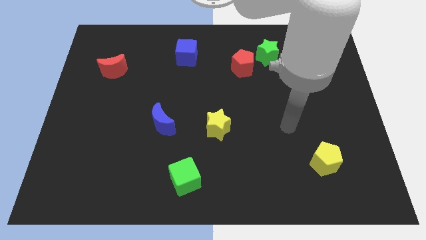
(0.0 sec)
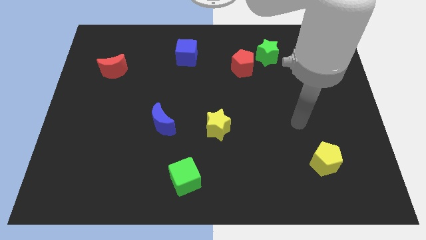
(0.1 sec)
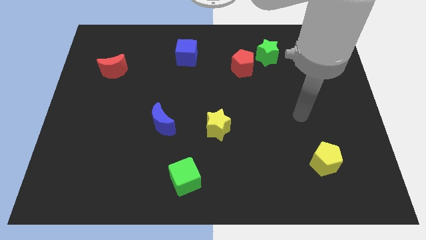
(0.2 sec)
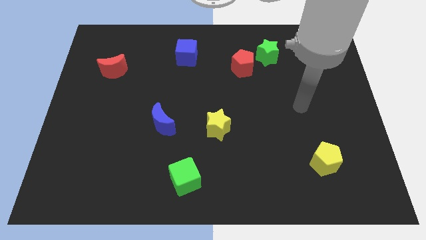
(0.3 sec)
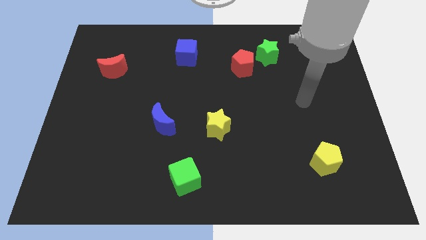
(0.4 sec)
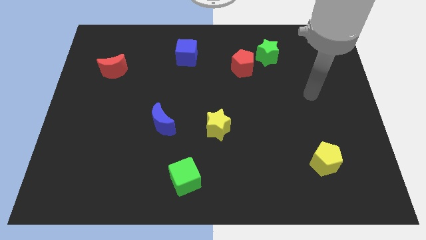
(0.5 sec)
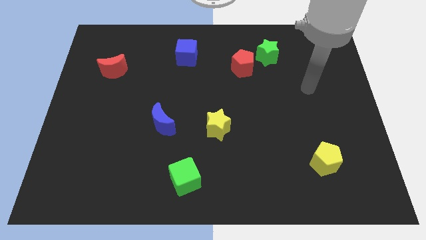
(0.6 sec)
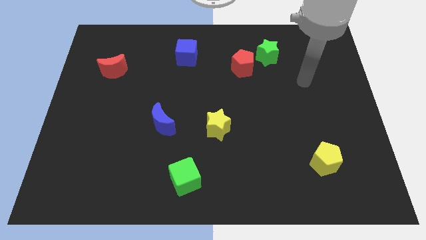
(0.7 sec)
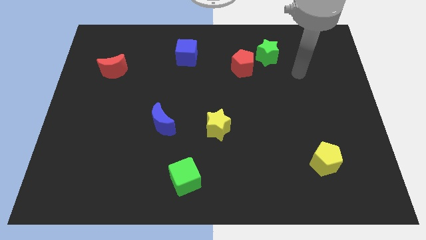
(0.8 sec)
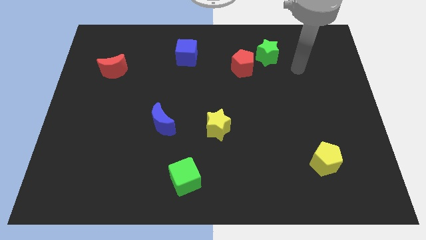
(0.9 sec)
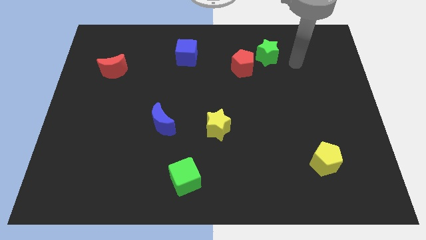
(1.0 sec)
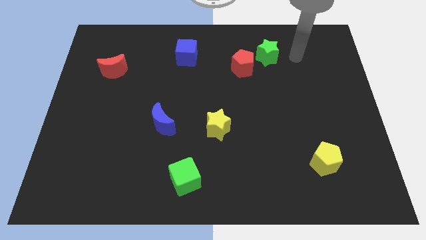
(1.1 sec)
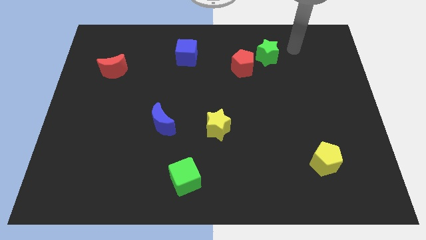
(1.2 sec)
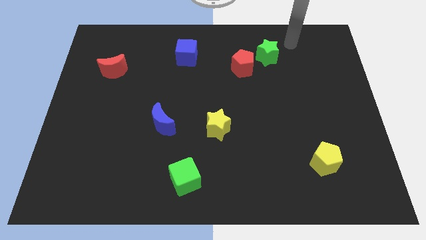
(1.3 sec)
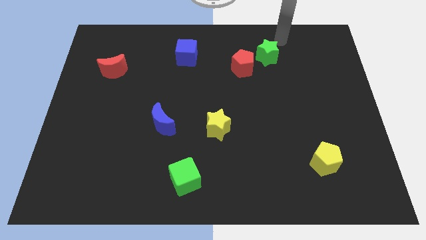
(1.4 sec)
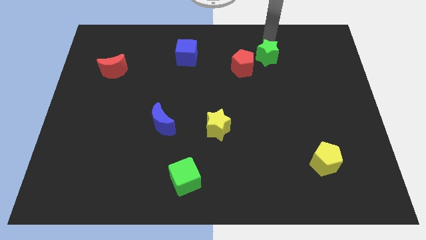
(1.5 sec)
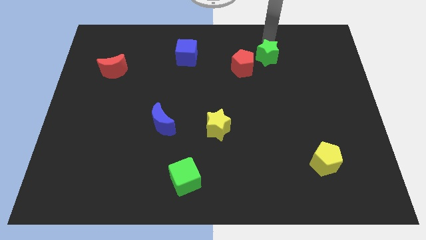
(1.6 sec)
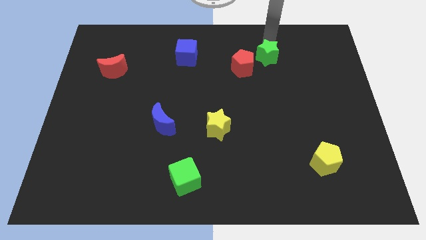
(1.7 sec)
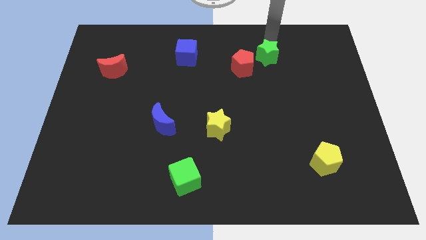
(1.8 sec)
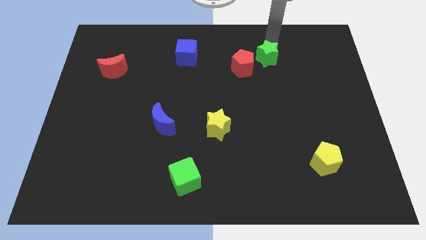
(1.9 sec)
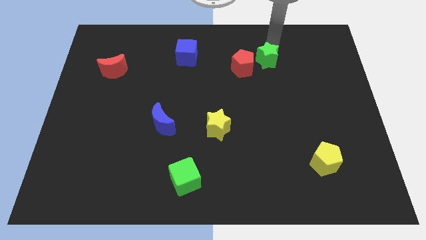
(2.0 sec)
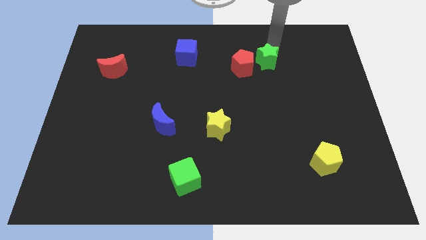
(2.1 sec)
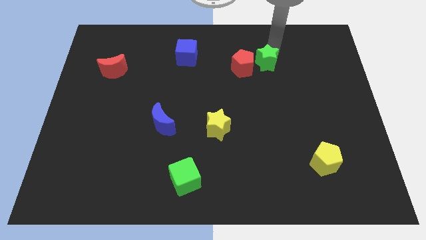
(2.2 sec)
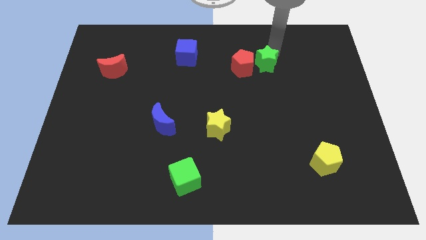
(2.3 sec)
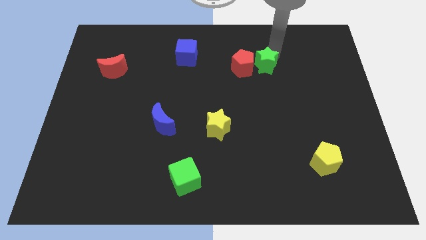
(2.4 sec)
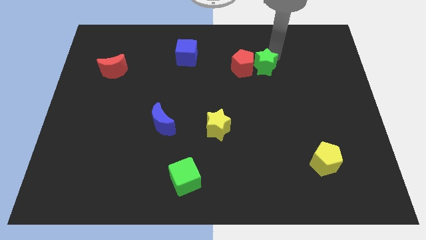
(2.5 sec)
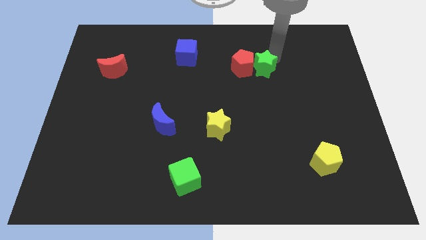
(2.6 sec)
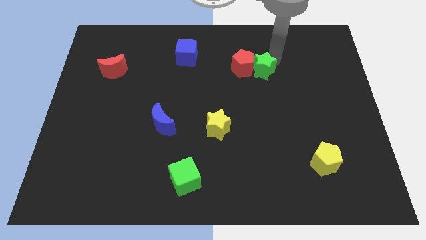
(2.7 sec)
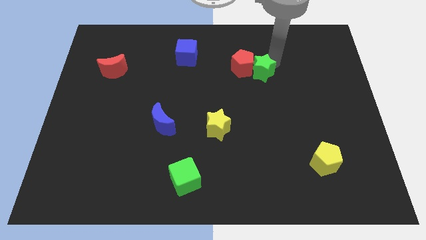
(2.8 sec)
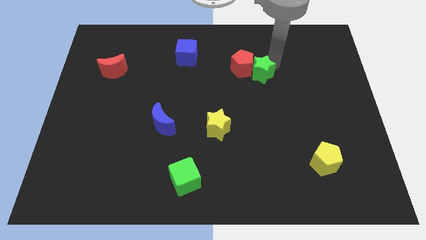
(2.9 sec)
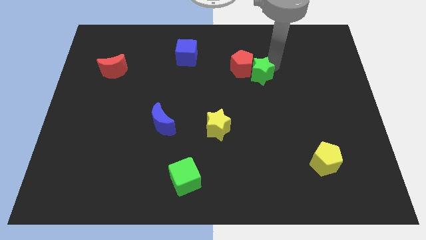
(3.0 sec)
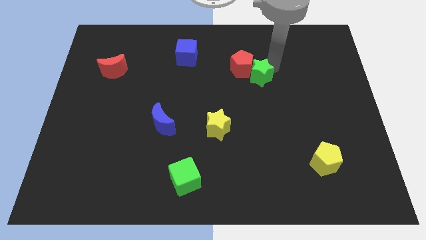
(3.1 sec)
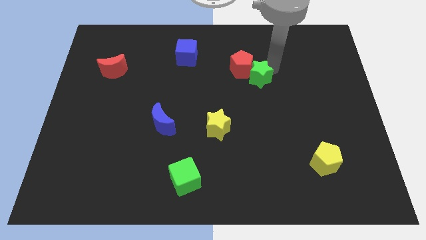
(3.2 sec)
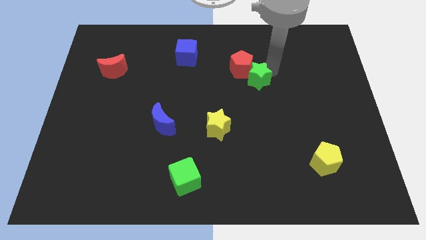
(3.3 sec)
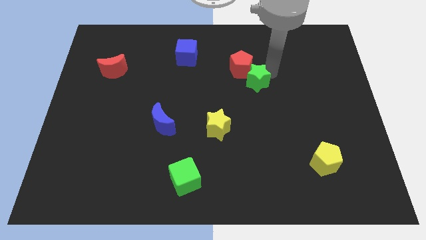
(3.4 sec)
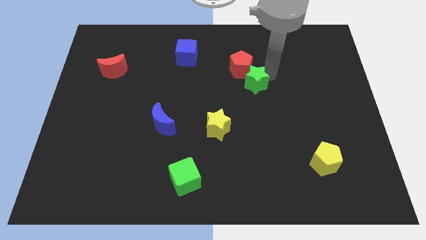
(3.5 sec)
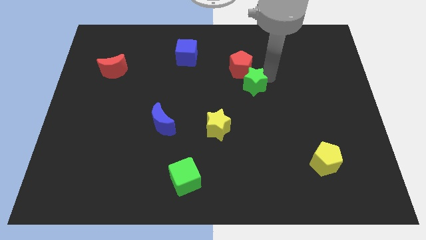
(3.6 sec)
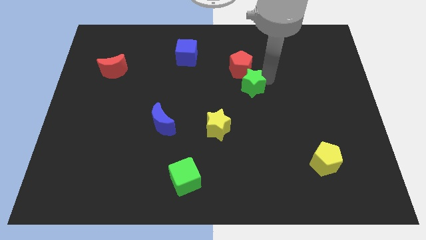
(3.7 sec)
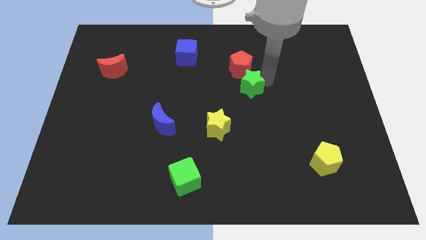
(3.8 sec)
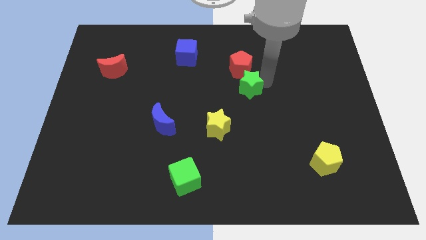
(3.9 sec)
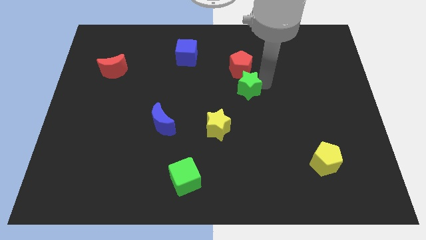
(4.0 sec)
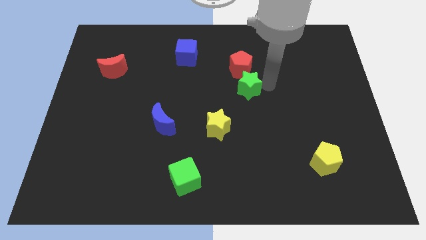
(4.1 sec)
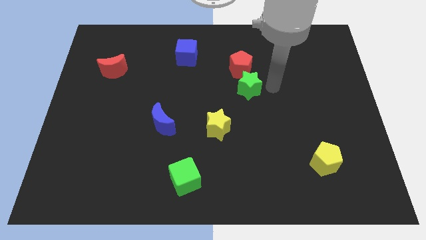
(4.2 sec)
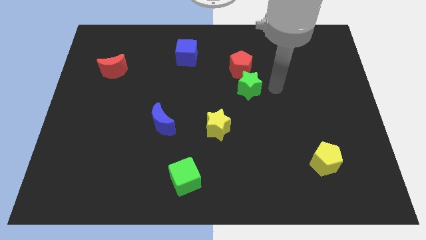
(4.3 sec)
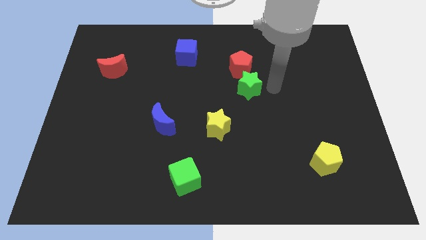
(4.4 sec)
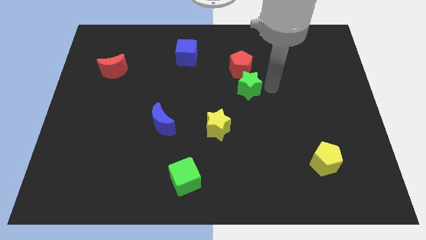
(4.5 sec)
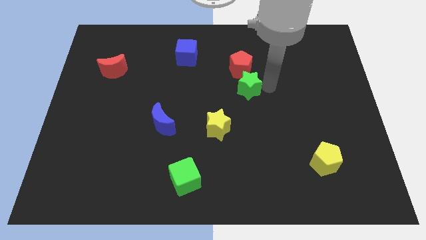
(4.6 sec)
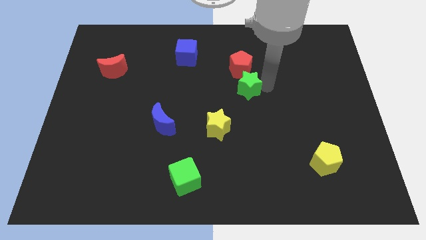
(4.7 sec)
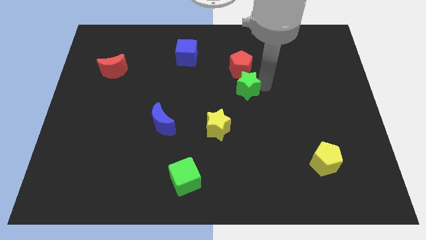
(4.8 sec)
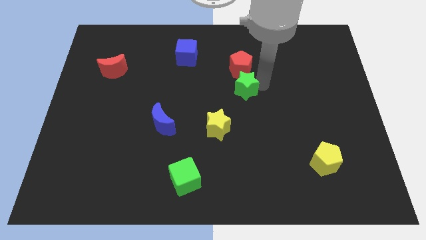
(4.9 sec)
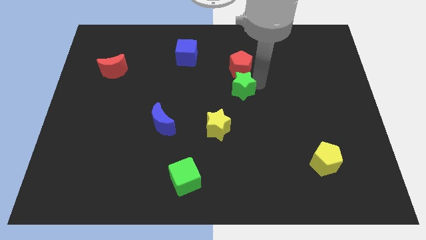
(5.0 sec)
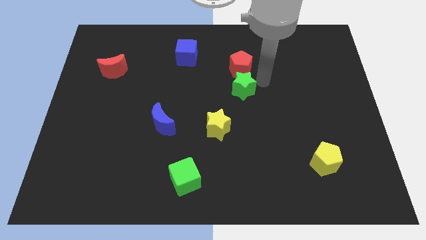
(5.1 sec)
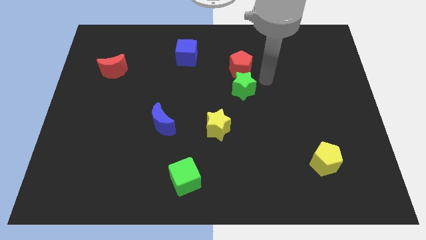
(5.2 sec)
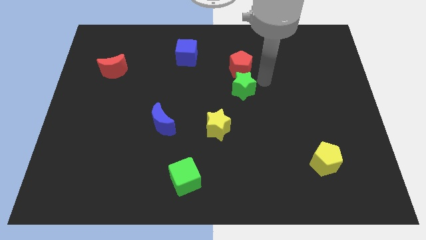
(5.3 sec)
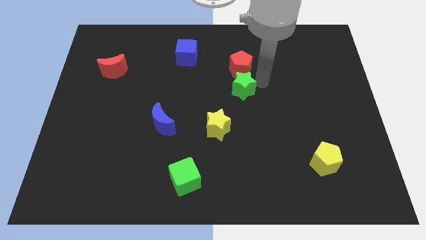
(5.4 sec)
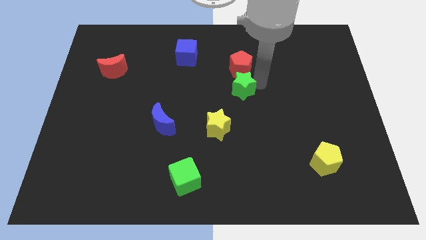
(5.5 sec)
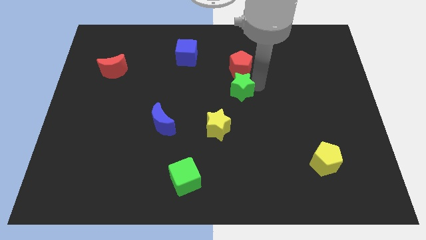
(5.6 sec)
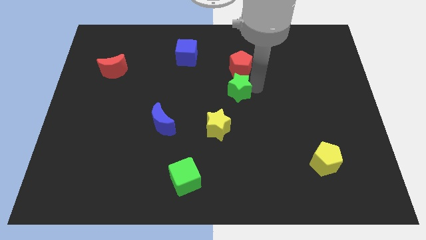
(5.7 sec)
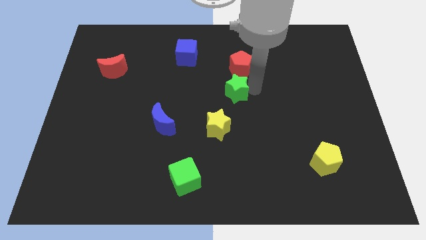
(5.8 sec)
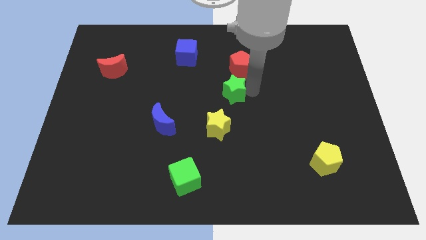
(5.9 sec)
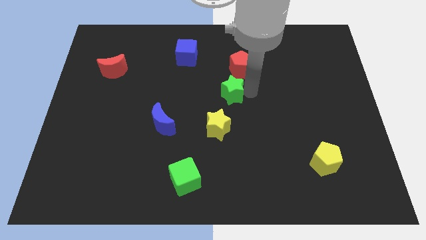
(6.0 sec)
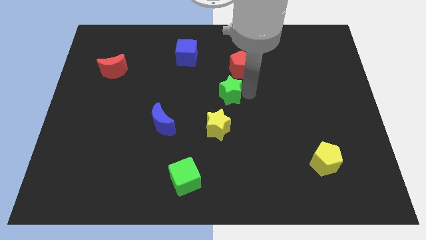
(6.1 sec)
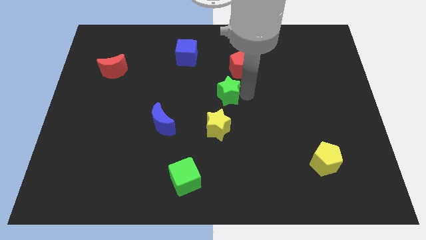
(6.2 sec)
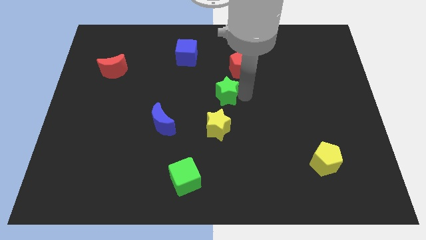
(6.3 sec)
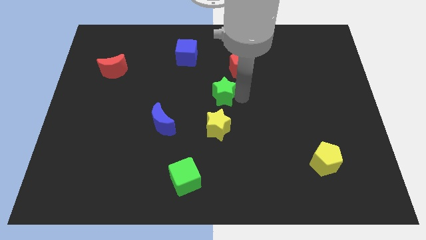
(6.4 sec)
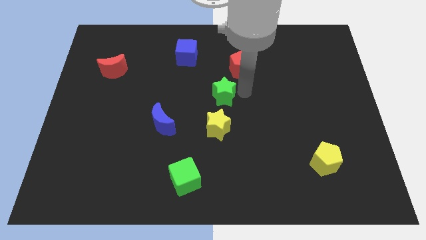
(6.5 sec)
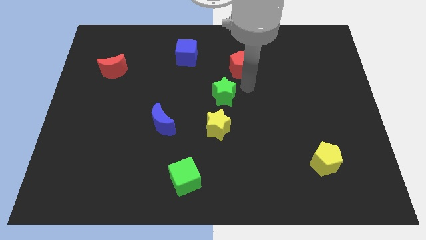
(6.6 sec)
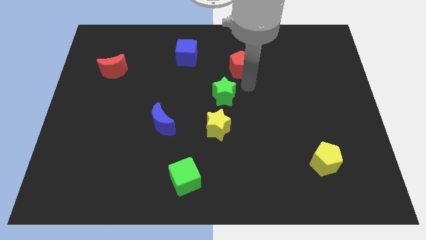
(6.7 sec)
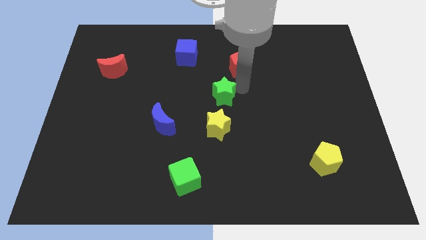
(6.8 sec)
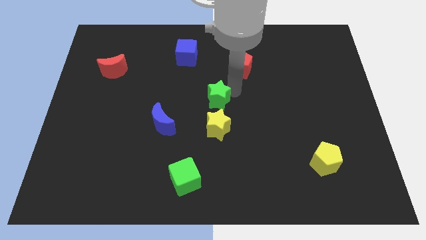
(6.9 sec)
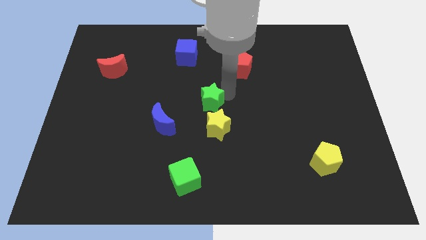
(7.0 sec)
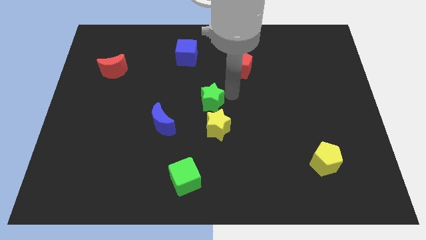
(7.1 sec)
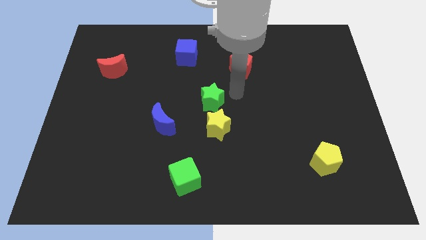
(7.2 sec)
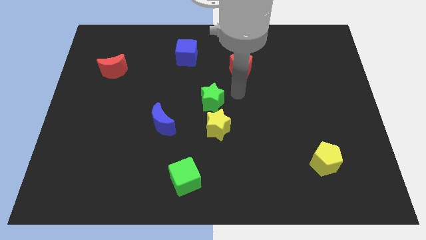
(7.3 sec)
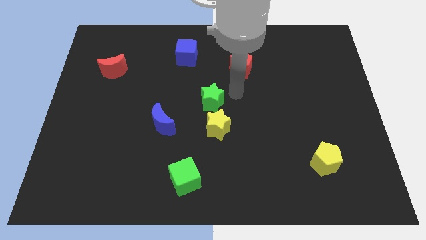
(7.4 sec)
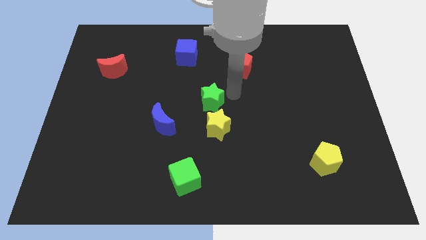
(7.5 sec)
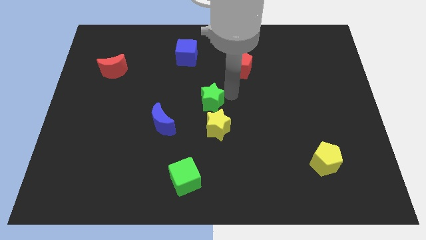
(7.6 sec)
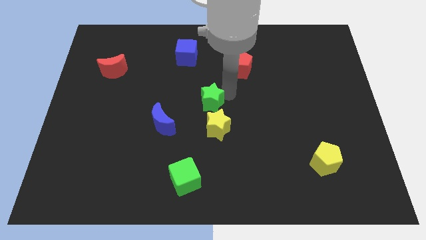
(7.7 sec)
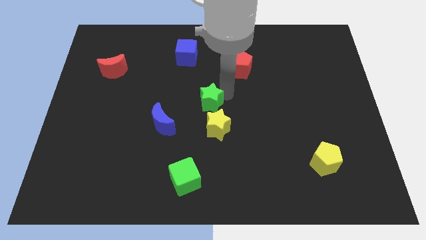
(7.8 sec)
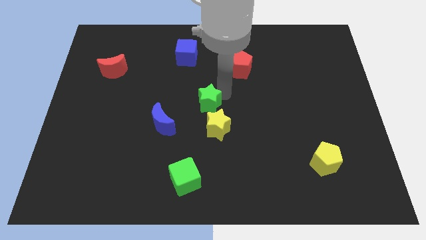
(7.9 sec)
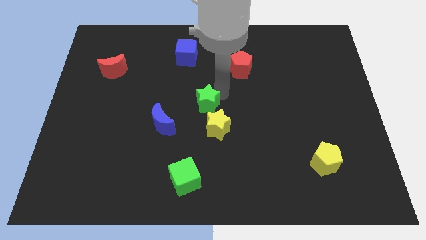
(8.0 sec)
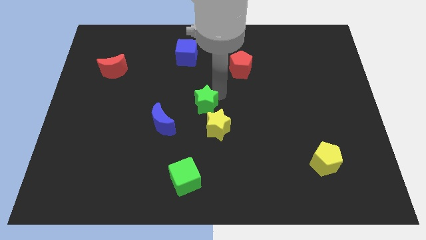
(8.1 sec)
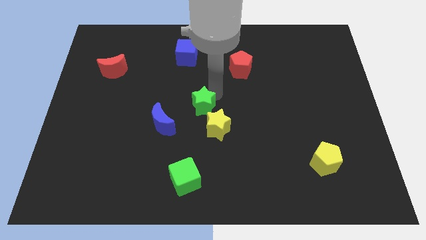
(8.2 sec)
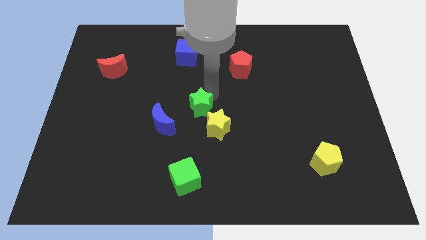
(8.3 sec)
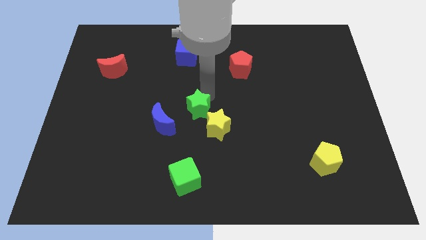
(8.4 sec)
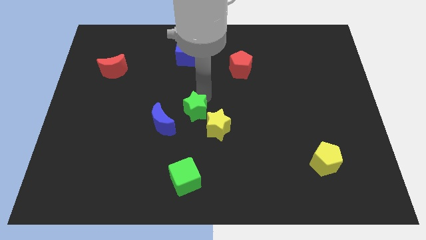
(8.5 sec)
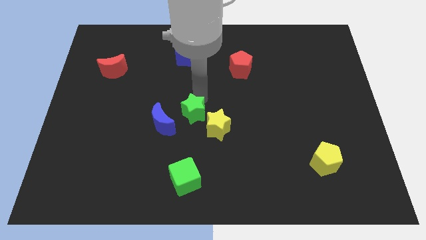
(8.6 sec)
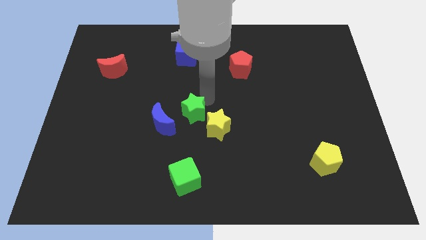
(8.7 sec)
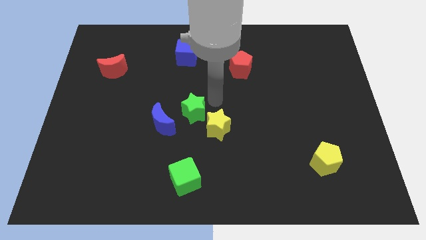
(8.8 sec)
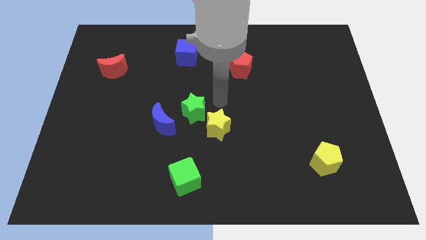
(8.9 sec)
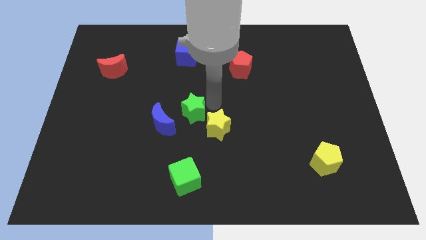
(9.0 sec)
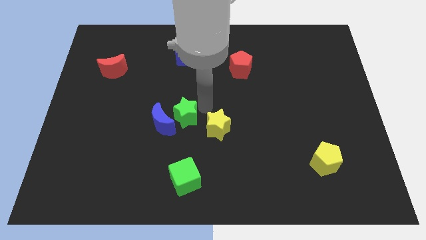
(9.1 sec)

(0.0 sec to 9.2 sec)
put the green star to the blue moon
